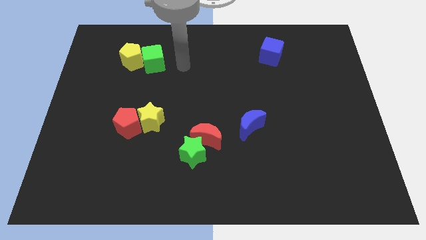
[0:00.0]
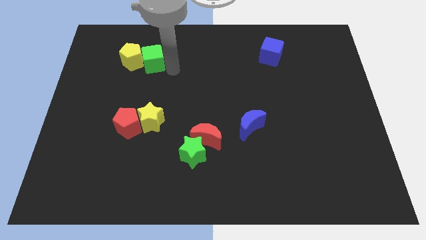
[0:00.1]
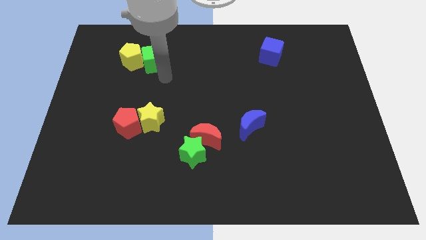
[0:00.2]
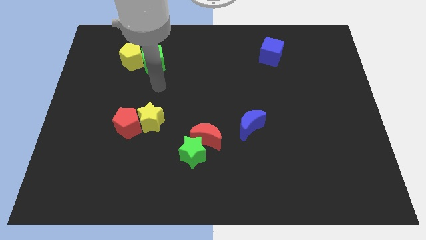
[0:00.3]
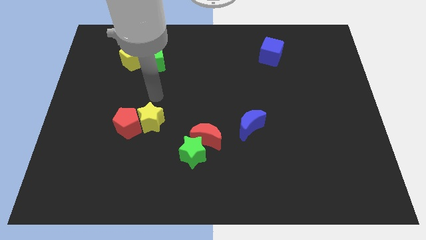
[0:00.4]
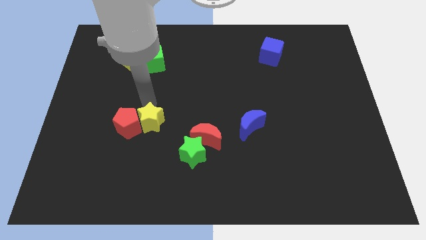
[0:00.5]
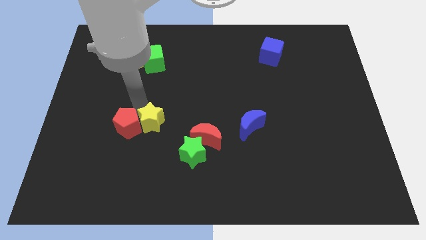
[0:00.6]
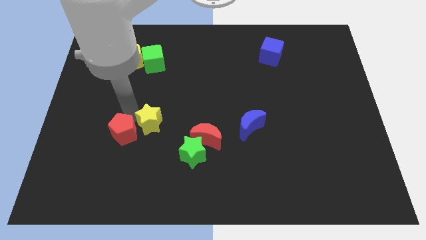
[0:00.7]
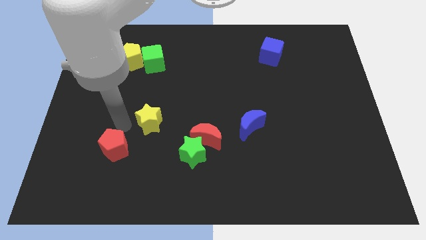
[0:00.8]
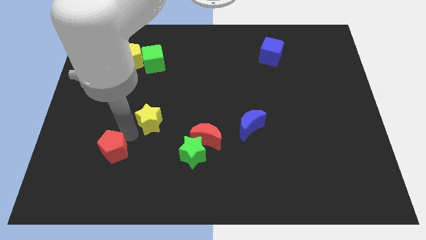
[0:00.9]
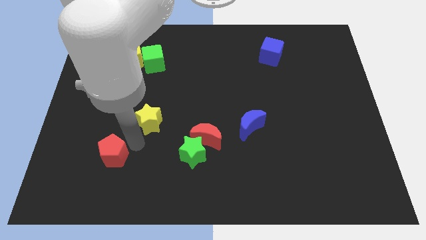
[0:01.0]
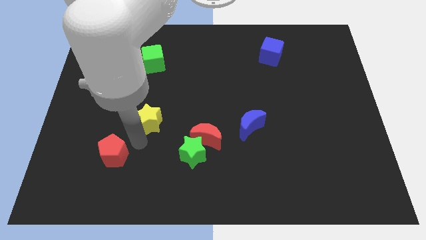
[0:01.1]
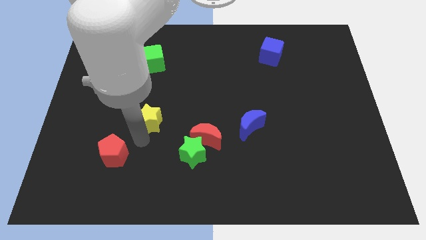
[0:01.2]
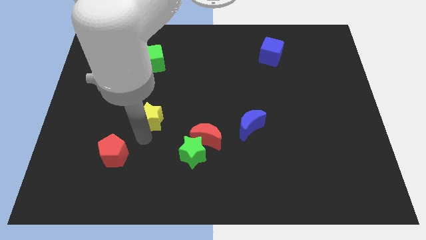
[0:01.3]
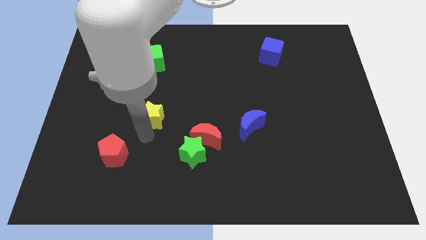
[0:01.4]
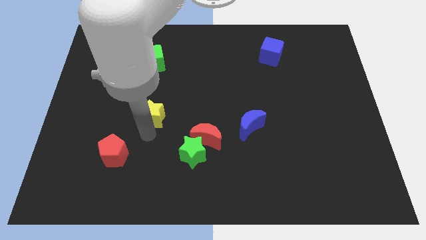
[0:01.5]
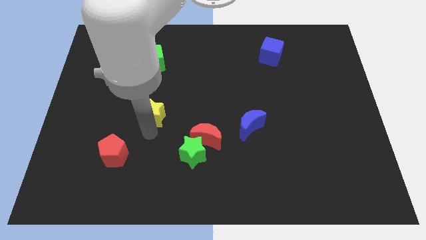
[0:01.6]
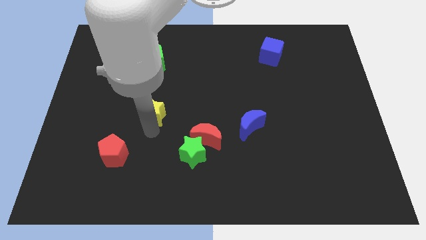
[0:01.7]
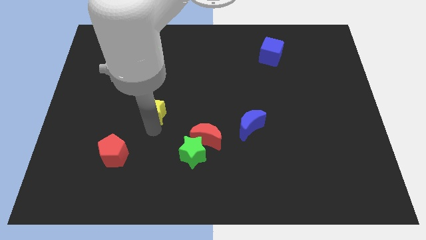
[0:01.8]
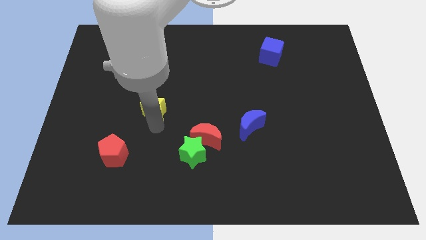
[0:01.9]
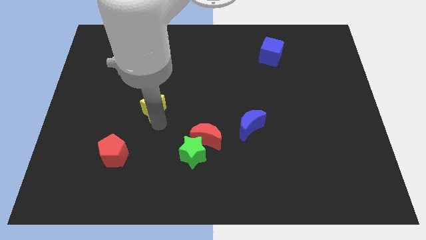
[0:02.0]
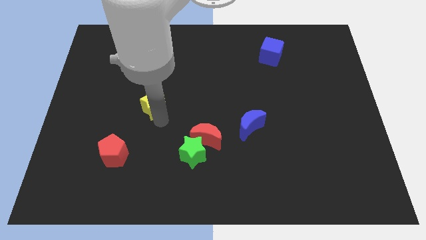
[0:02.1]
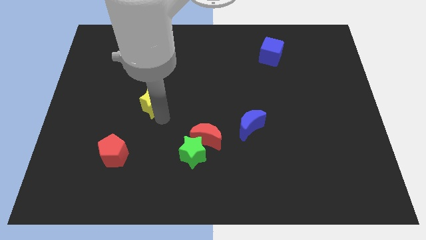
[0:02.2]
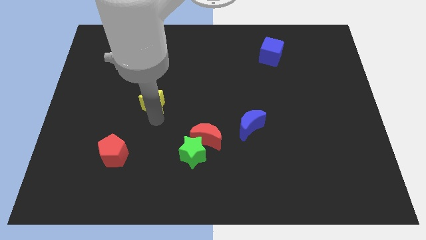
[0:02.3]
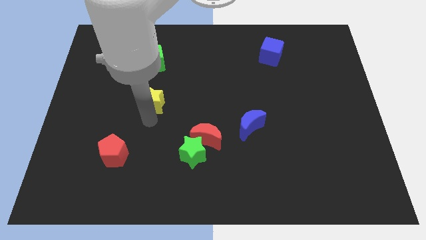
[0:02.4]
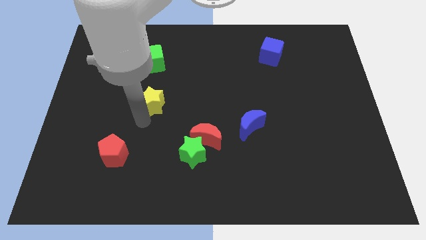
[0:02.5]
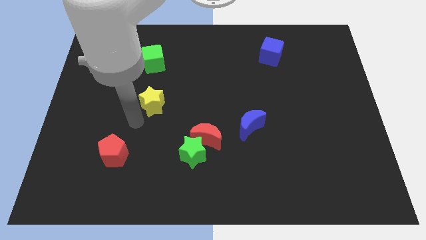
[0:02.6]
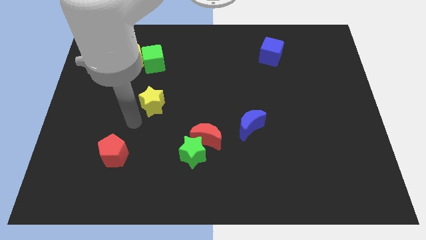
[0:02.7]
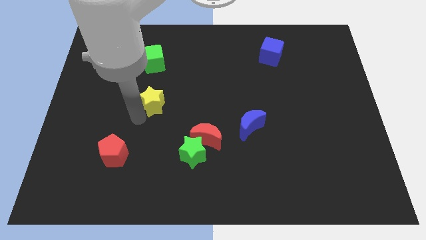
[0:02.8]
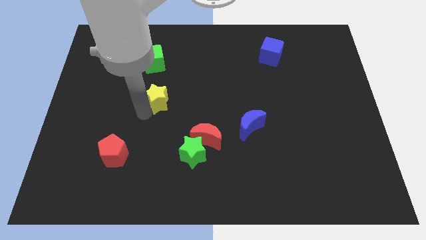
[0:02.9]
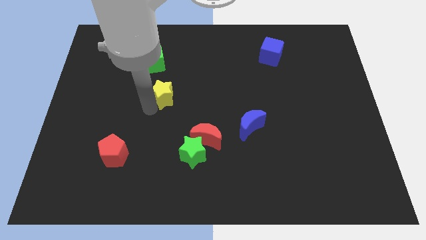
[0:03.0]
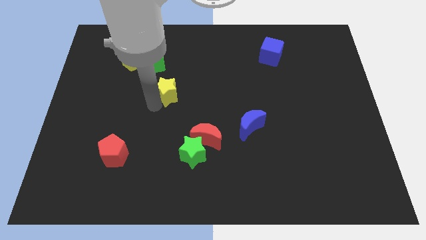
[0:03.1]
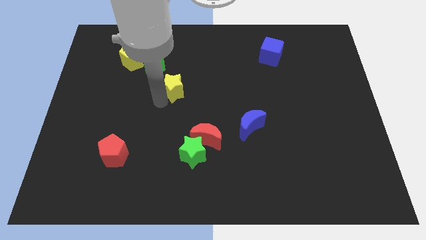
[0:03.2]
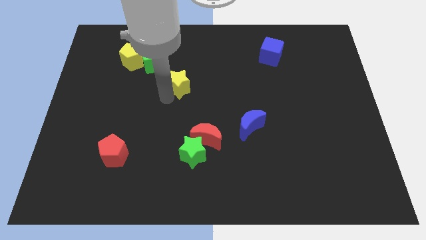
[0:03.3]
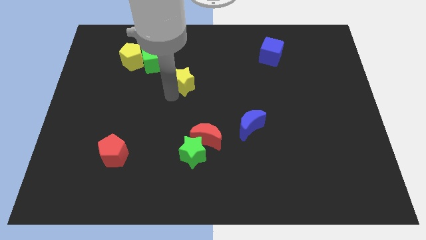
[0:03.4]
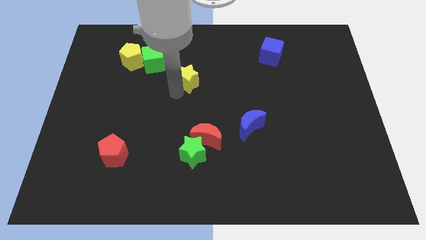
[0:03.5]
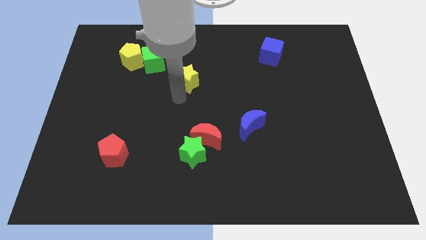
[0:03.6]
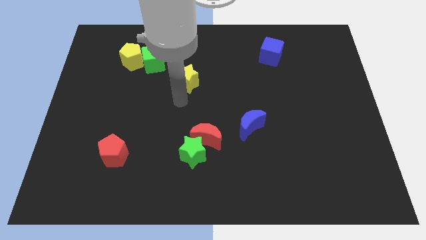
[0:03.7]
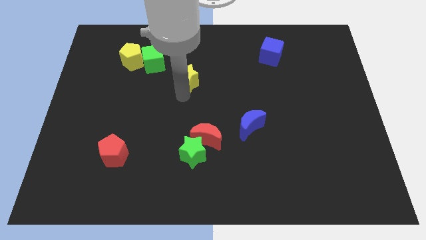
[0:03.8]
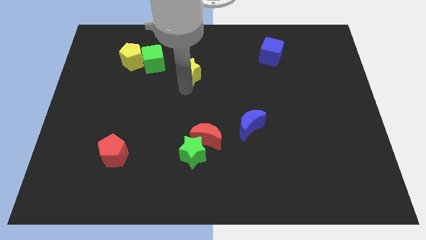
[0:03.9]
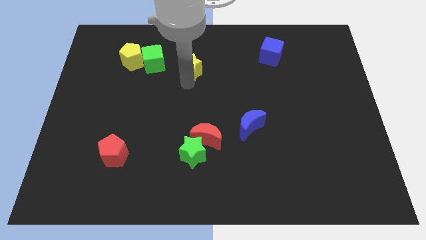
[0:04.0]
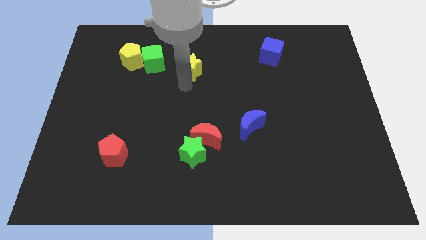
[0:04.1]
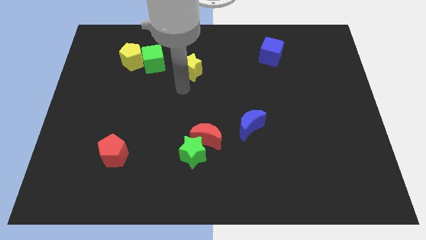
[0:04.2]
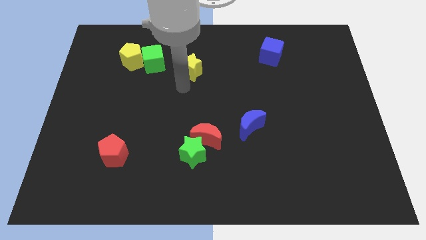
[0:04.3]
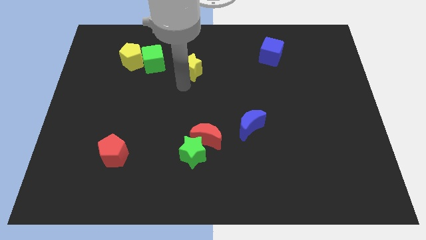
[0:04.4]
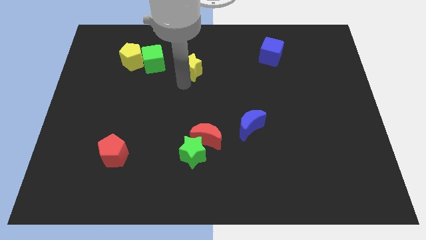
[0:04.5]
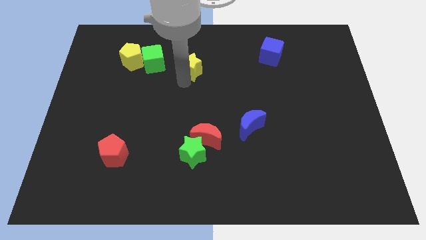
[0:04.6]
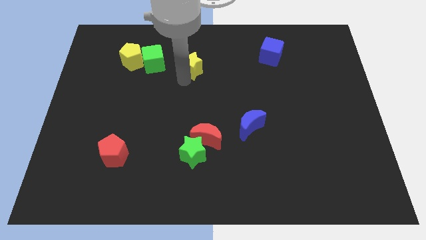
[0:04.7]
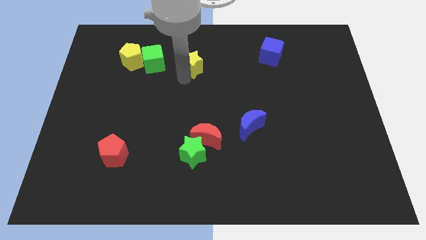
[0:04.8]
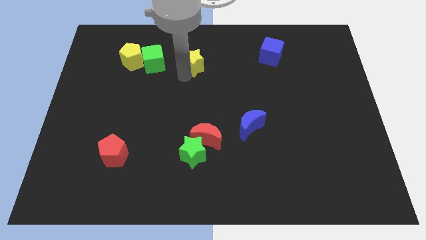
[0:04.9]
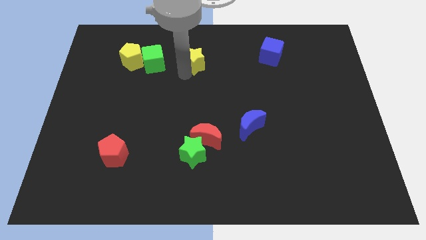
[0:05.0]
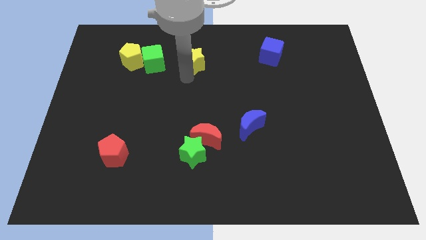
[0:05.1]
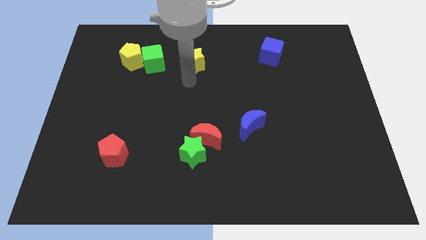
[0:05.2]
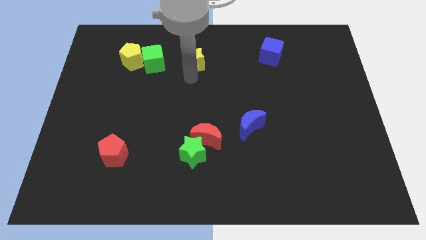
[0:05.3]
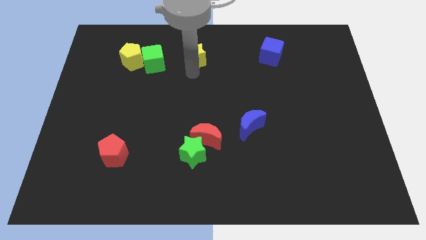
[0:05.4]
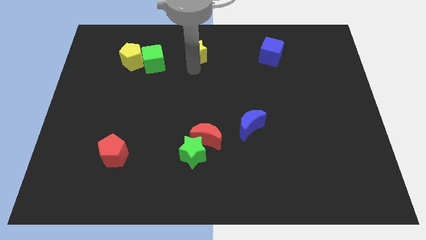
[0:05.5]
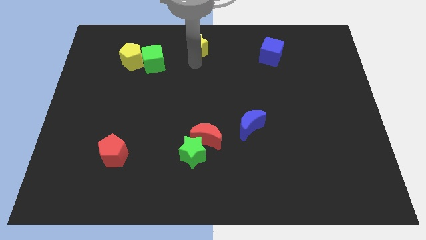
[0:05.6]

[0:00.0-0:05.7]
put the yellow star to the top side

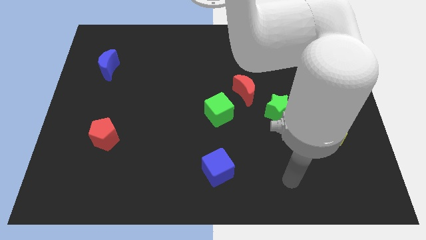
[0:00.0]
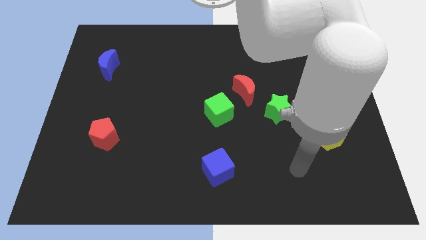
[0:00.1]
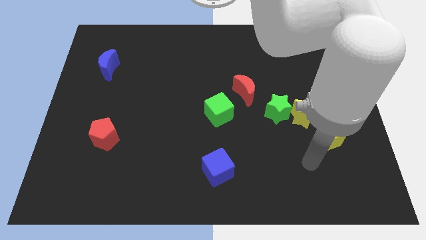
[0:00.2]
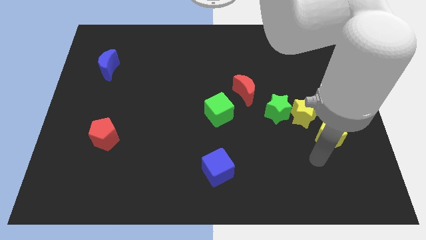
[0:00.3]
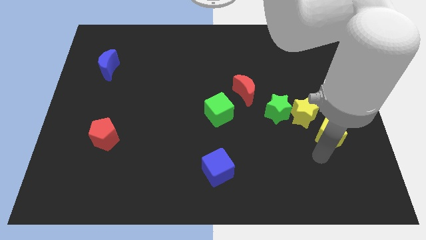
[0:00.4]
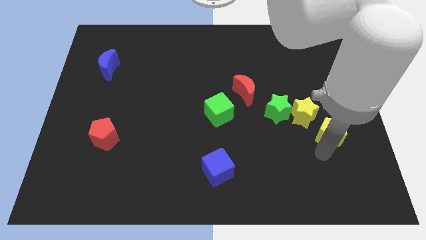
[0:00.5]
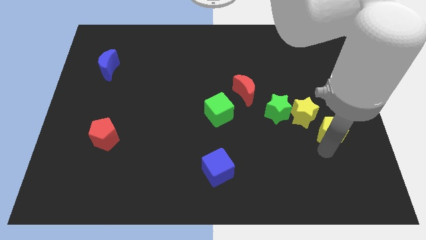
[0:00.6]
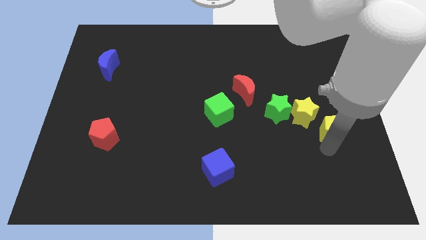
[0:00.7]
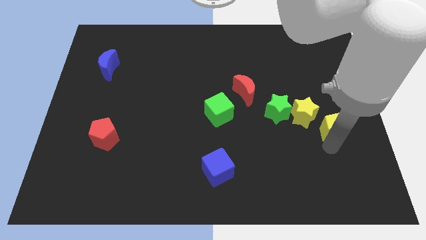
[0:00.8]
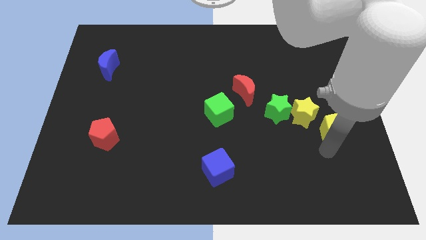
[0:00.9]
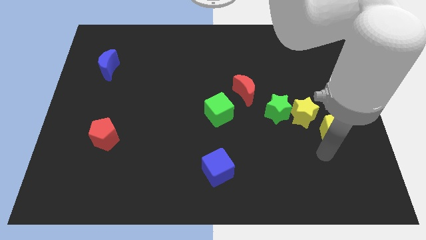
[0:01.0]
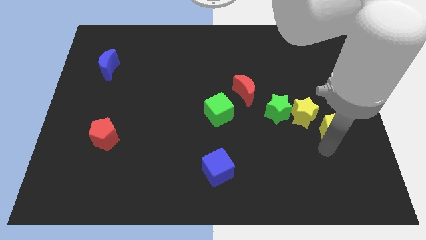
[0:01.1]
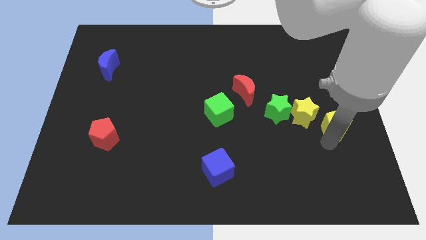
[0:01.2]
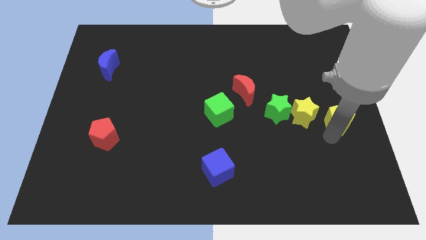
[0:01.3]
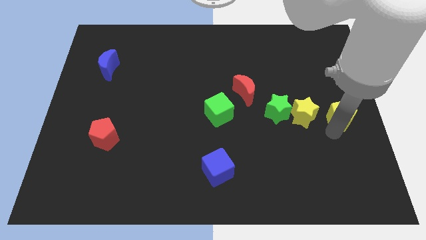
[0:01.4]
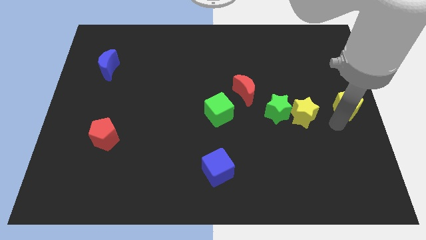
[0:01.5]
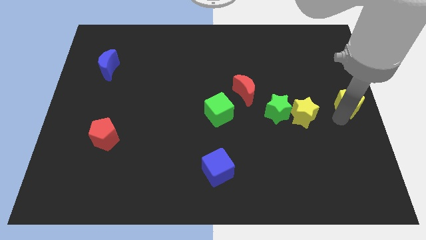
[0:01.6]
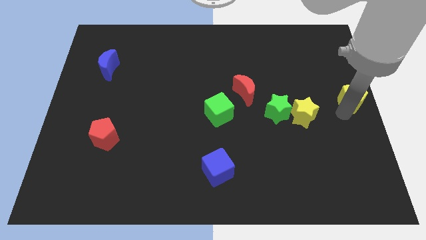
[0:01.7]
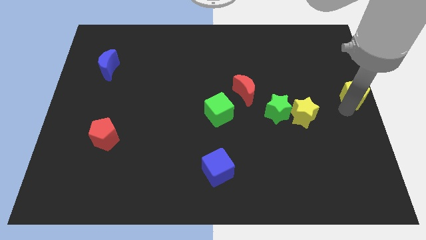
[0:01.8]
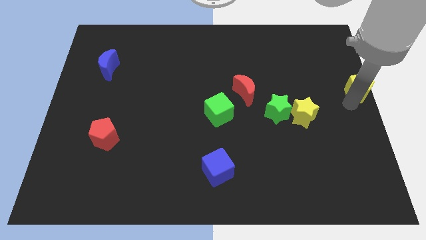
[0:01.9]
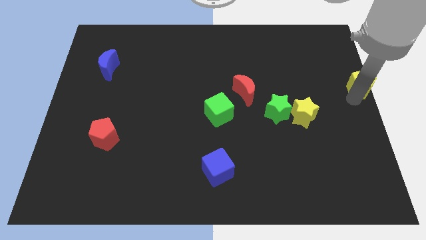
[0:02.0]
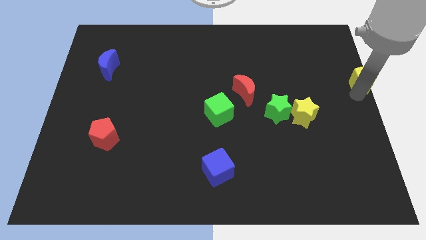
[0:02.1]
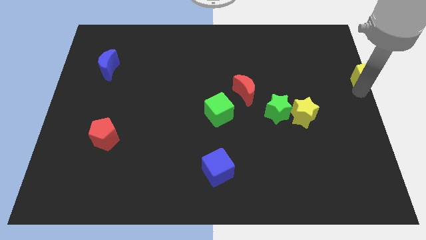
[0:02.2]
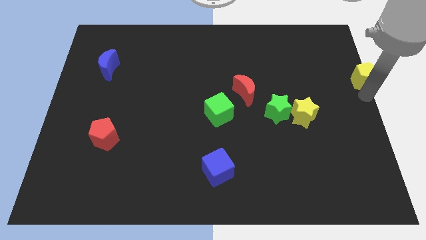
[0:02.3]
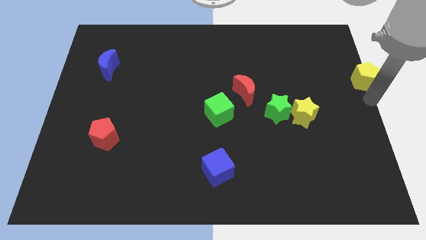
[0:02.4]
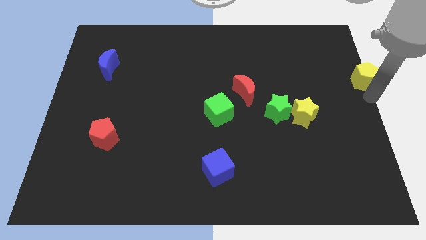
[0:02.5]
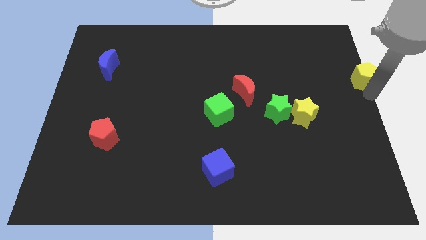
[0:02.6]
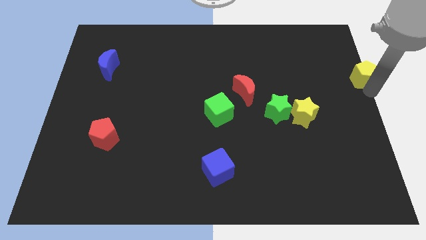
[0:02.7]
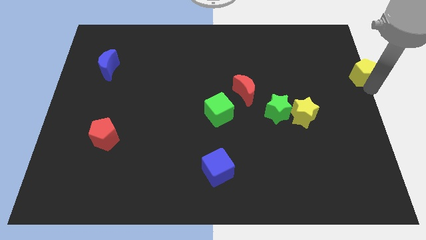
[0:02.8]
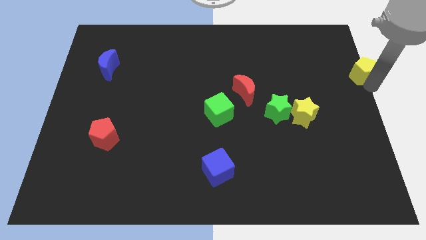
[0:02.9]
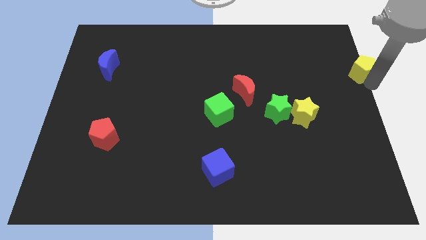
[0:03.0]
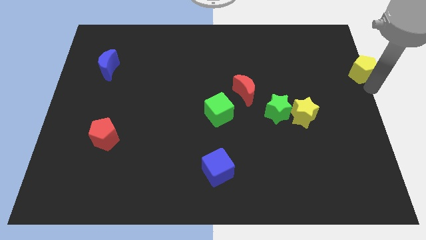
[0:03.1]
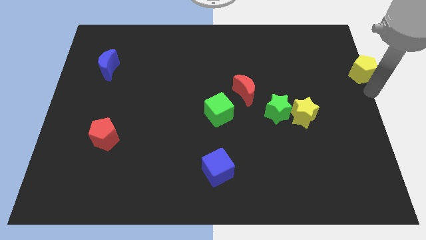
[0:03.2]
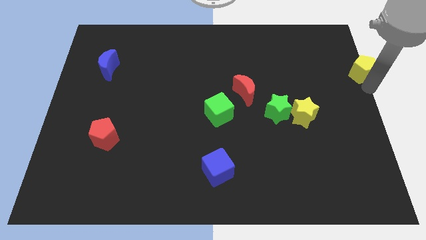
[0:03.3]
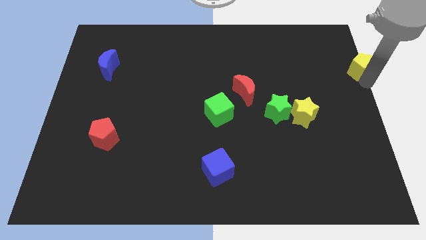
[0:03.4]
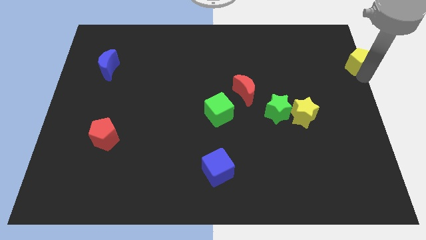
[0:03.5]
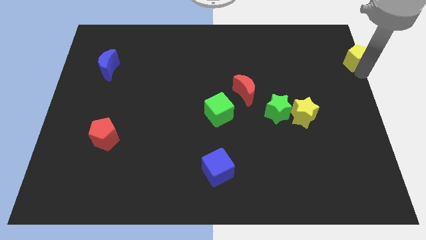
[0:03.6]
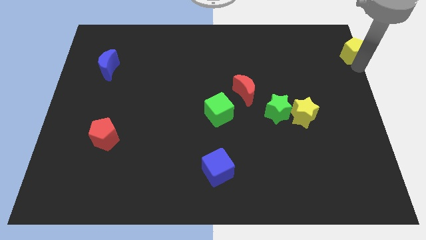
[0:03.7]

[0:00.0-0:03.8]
put the yellow pentagon to the top right corner
